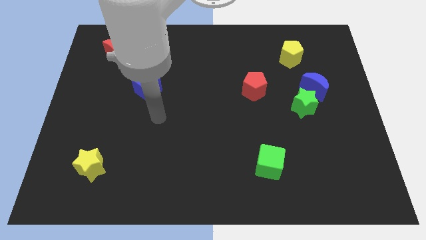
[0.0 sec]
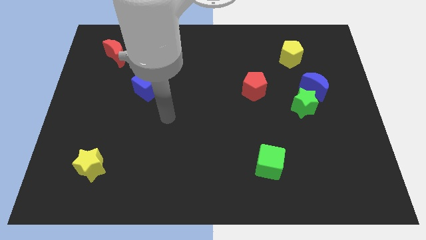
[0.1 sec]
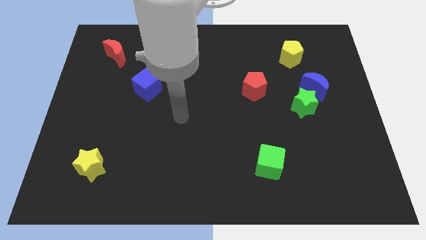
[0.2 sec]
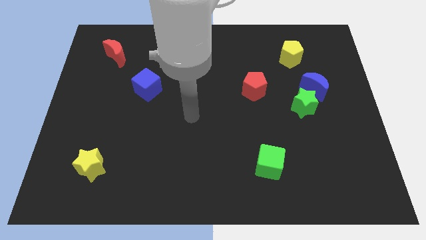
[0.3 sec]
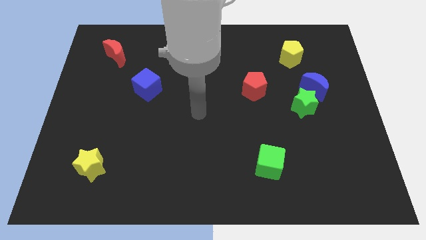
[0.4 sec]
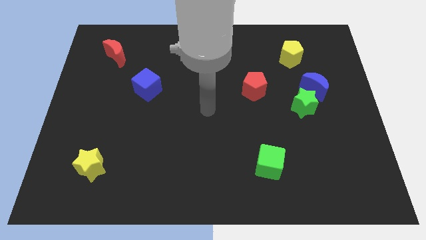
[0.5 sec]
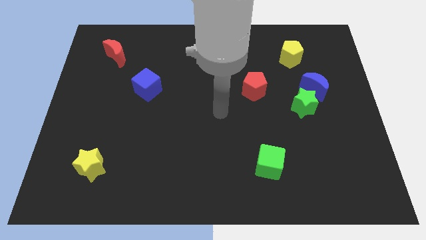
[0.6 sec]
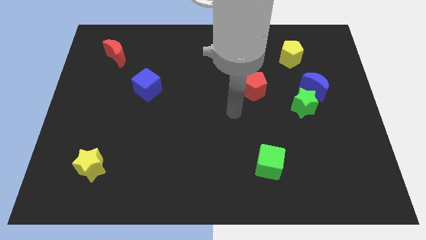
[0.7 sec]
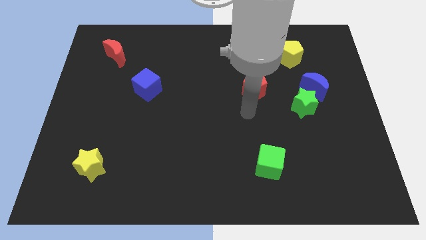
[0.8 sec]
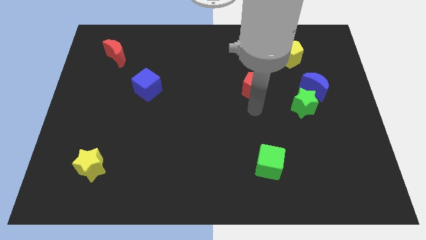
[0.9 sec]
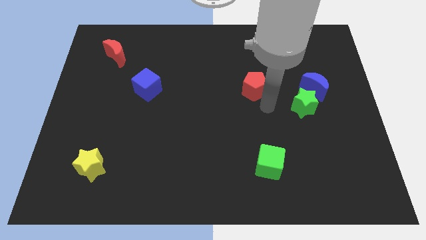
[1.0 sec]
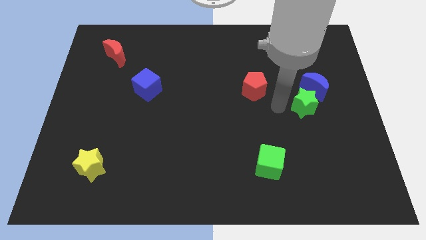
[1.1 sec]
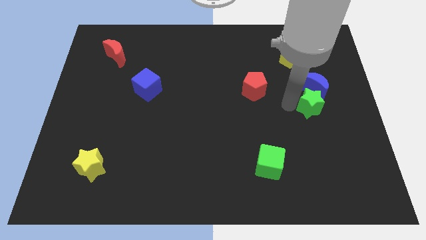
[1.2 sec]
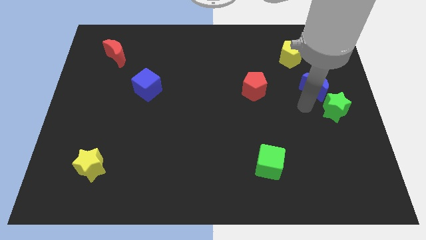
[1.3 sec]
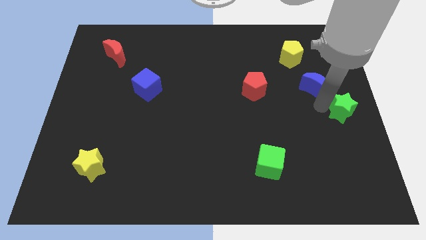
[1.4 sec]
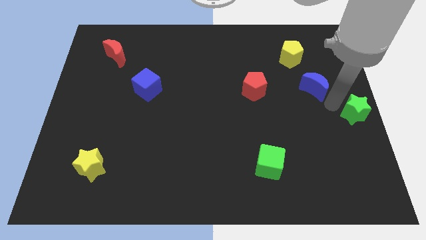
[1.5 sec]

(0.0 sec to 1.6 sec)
pull the blue moon apart from the green star

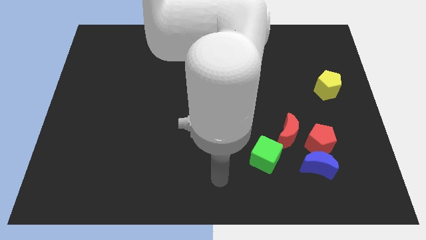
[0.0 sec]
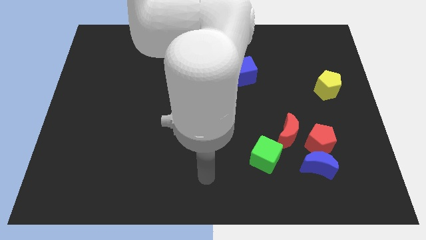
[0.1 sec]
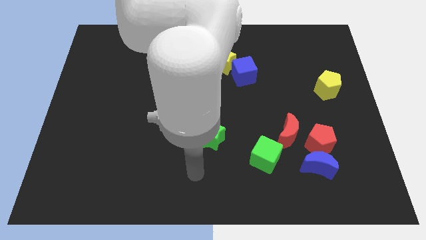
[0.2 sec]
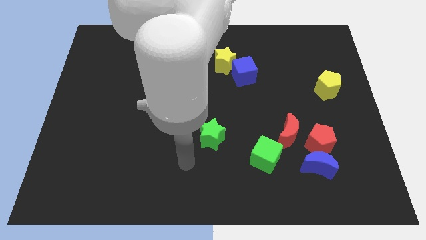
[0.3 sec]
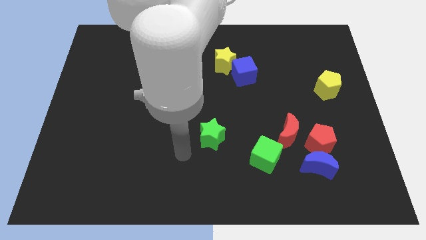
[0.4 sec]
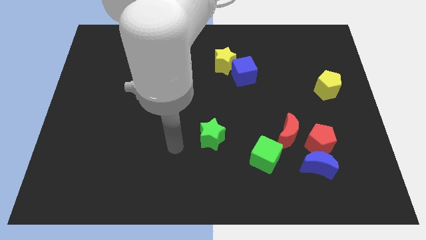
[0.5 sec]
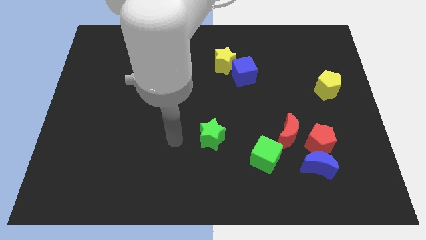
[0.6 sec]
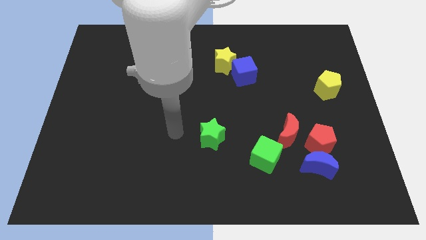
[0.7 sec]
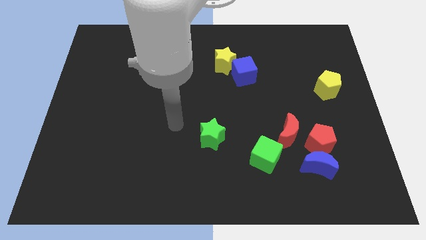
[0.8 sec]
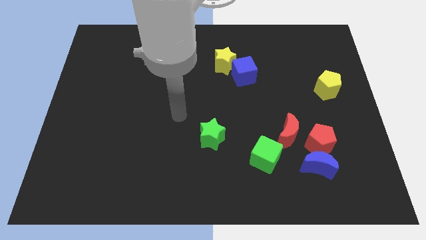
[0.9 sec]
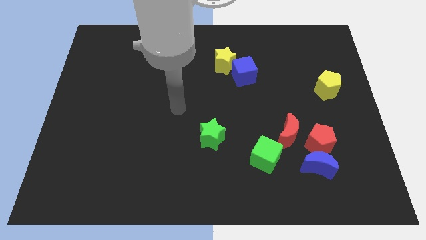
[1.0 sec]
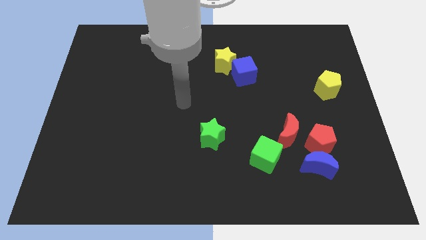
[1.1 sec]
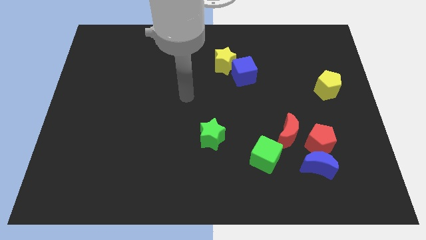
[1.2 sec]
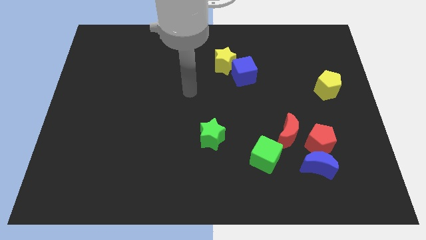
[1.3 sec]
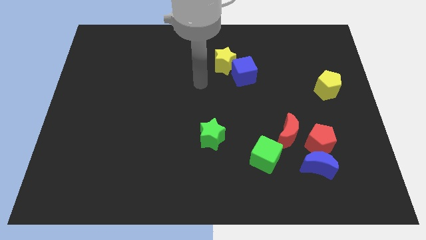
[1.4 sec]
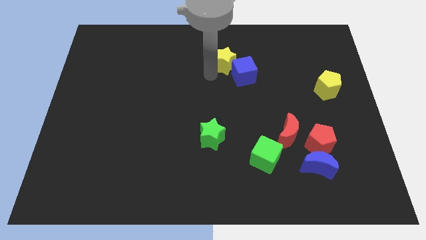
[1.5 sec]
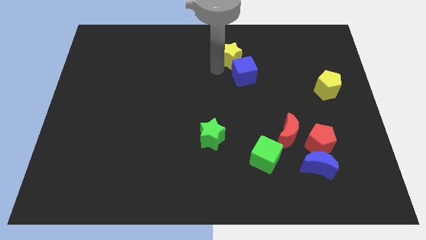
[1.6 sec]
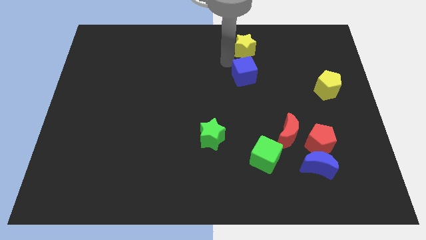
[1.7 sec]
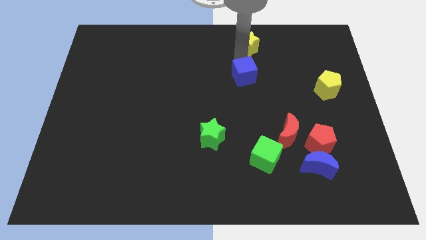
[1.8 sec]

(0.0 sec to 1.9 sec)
move the blue cube away from the yellow star

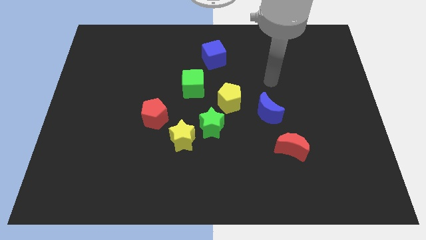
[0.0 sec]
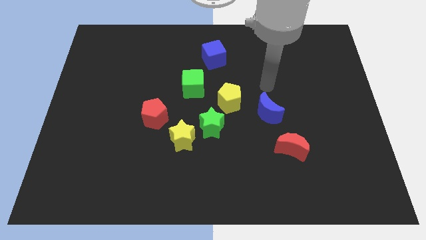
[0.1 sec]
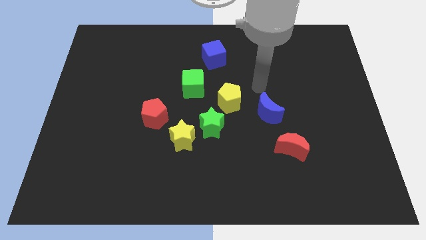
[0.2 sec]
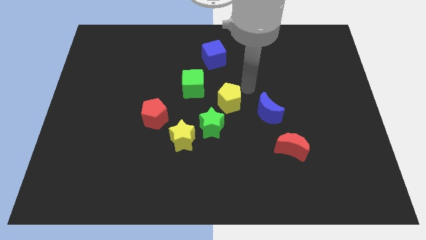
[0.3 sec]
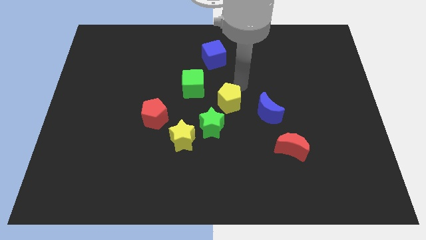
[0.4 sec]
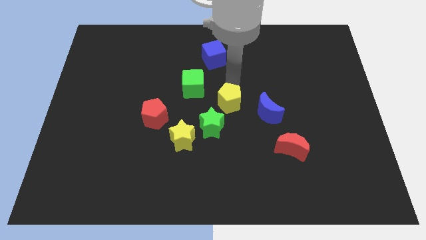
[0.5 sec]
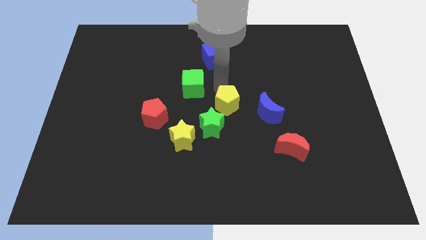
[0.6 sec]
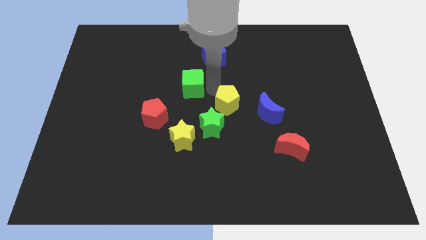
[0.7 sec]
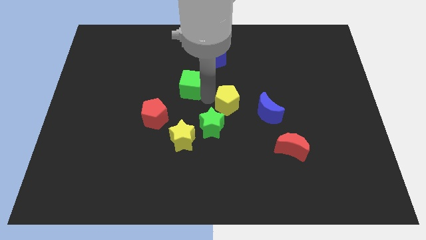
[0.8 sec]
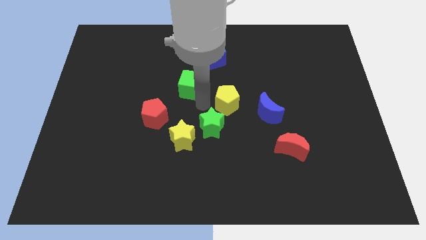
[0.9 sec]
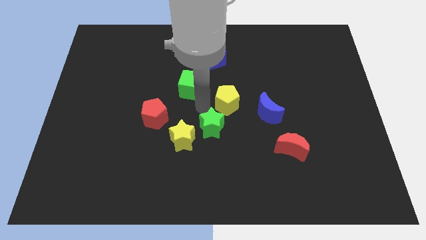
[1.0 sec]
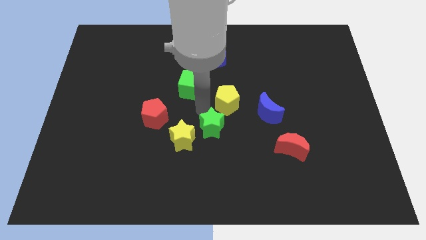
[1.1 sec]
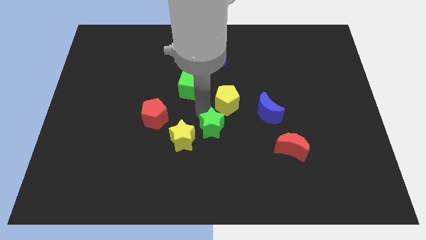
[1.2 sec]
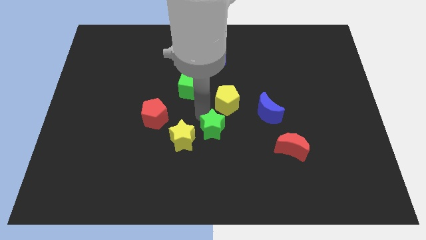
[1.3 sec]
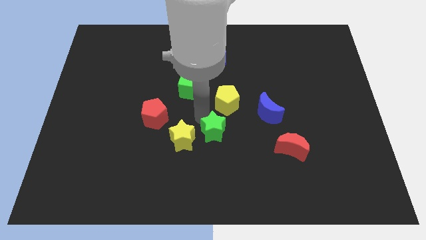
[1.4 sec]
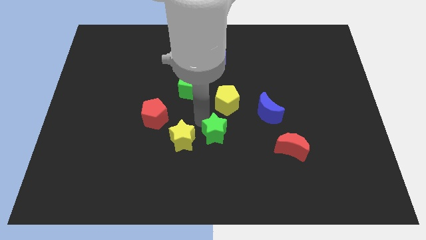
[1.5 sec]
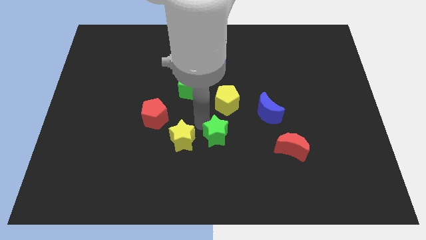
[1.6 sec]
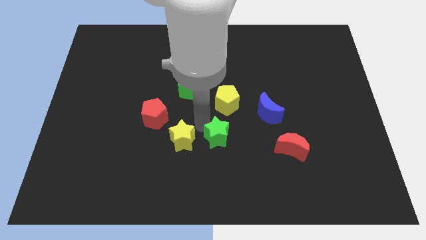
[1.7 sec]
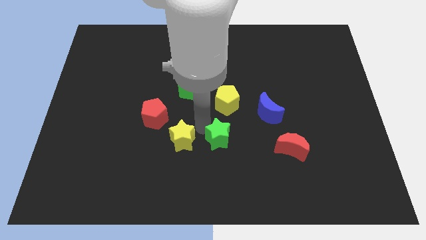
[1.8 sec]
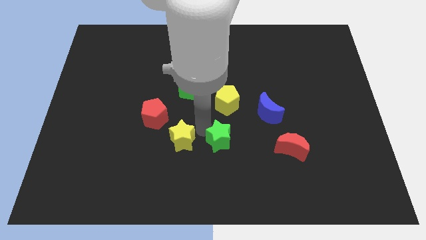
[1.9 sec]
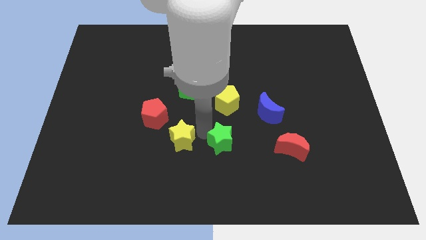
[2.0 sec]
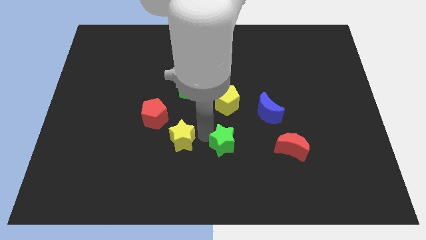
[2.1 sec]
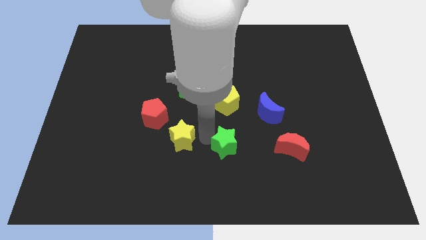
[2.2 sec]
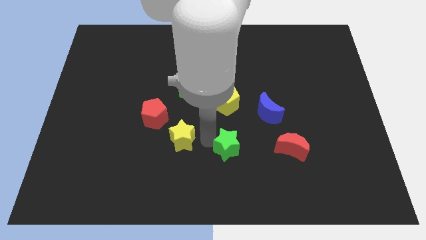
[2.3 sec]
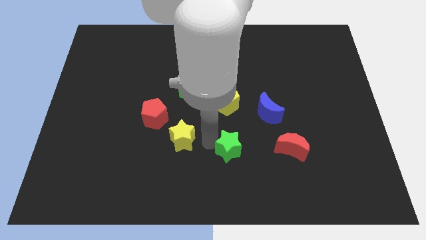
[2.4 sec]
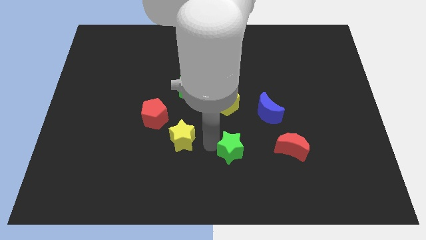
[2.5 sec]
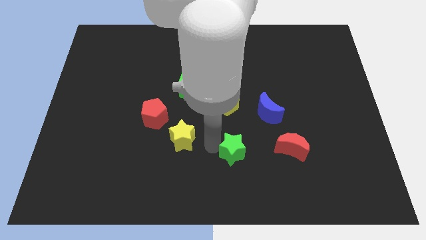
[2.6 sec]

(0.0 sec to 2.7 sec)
separate the green star from the yellow star and yellow pentagon

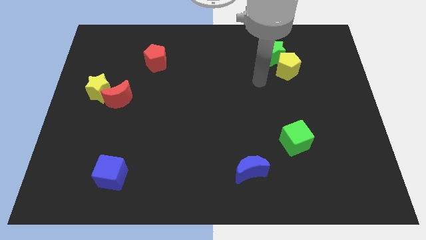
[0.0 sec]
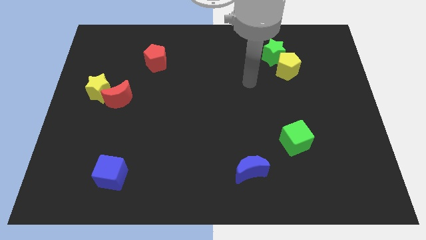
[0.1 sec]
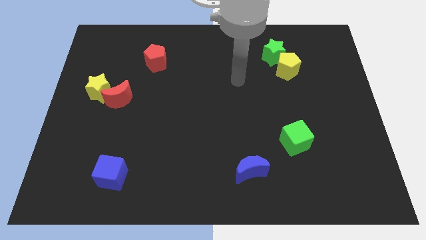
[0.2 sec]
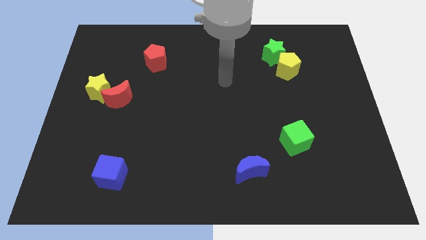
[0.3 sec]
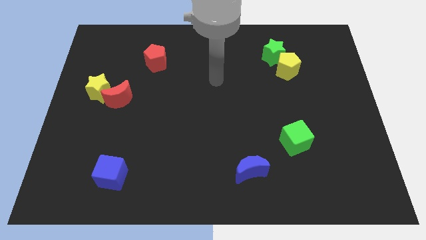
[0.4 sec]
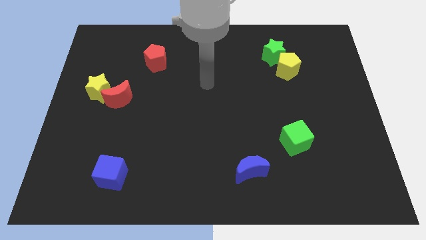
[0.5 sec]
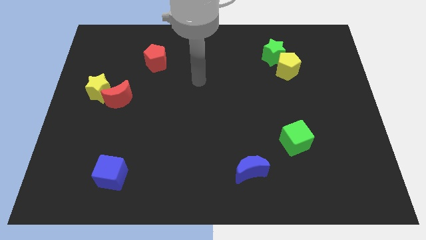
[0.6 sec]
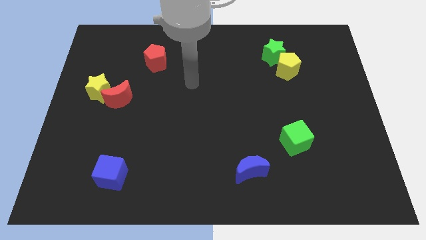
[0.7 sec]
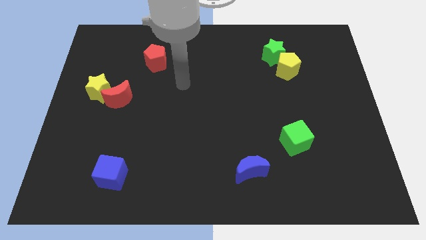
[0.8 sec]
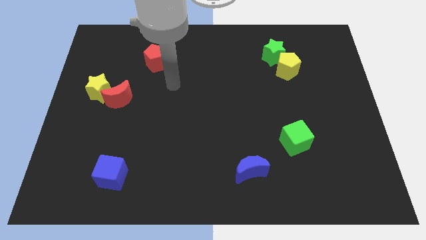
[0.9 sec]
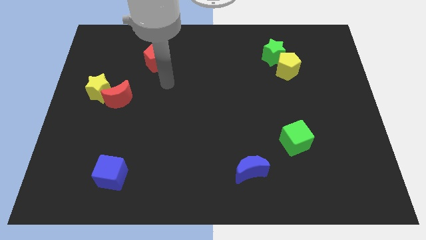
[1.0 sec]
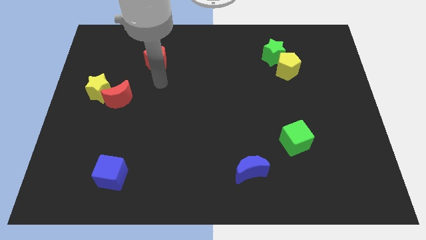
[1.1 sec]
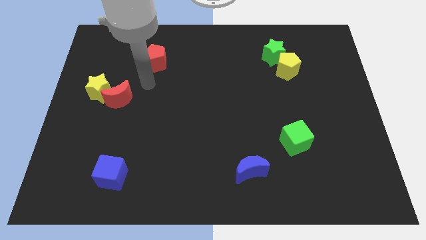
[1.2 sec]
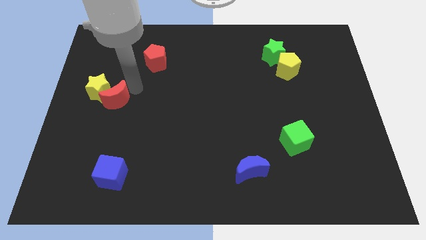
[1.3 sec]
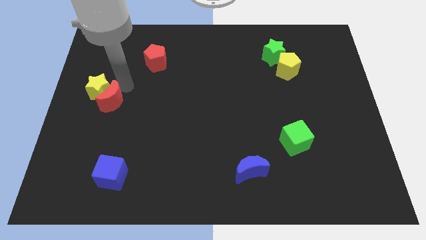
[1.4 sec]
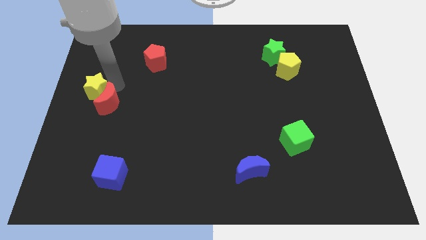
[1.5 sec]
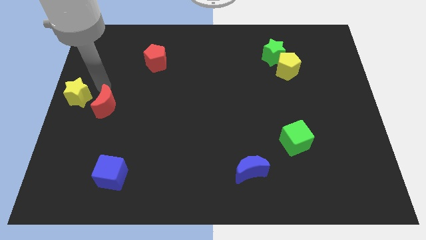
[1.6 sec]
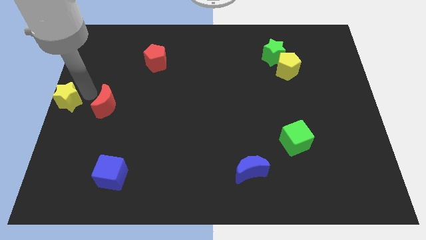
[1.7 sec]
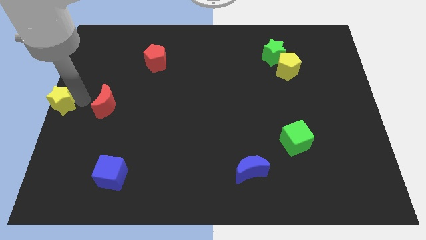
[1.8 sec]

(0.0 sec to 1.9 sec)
separate the red moon from the yellow star

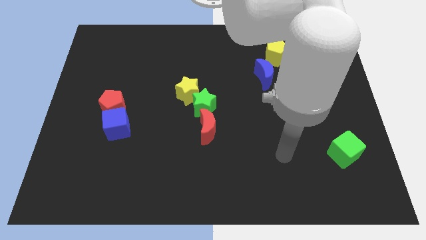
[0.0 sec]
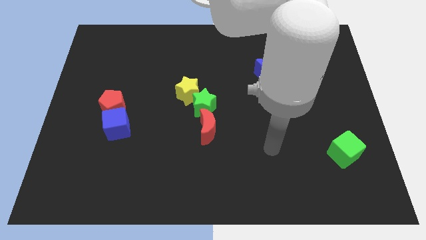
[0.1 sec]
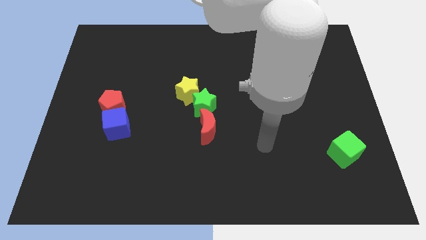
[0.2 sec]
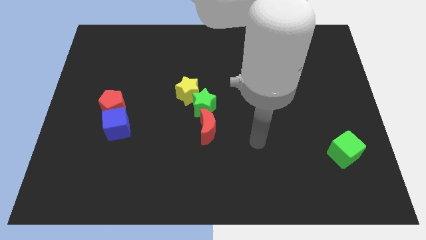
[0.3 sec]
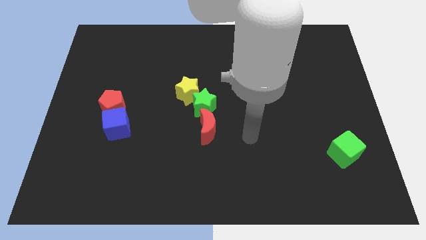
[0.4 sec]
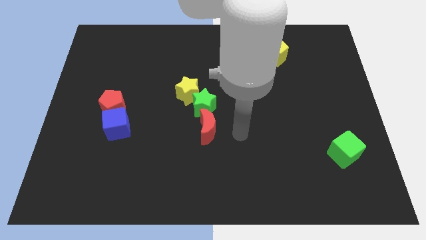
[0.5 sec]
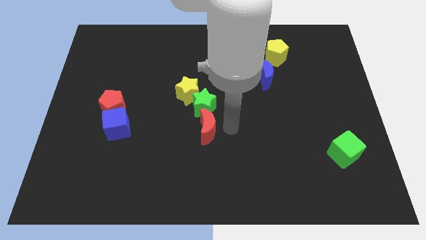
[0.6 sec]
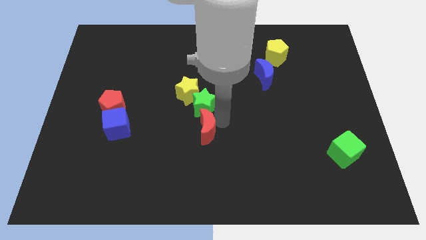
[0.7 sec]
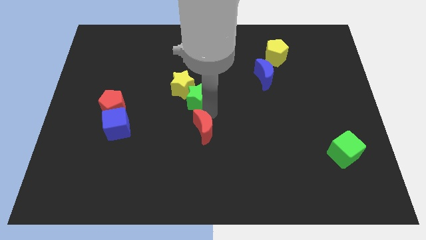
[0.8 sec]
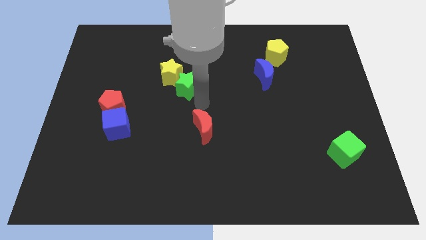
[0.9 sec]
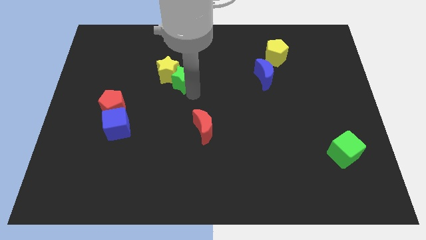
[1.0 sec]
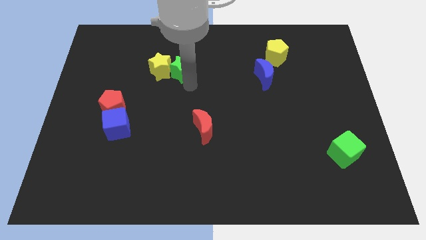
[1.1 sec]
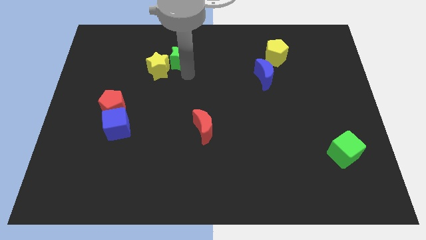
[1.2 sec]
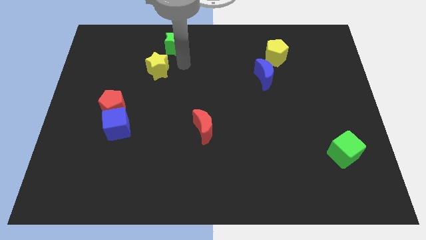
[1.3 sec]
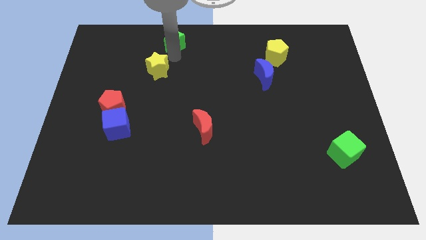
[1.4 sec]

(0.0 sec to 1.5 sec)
separate the yellow star from the green star
